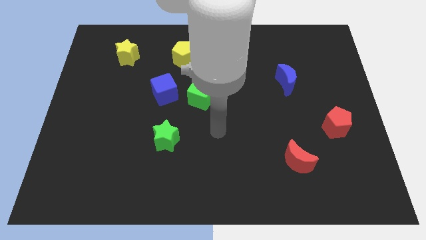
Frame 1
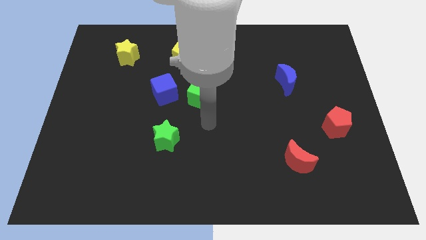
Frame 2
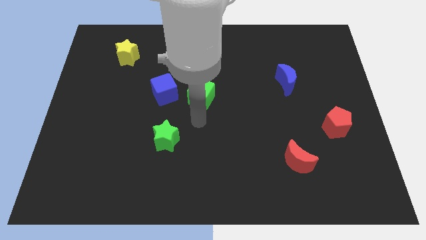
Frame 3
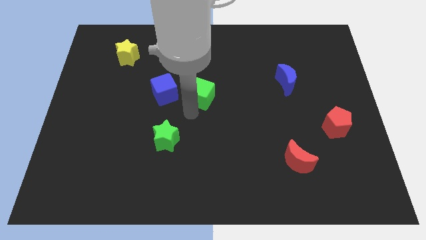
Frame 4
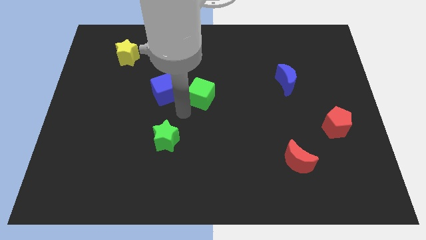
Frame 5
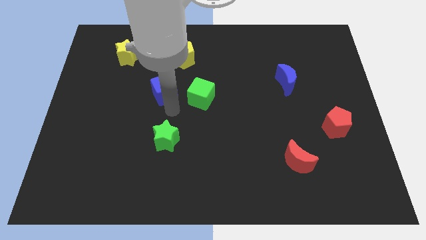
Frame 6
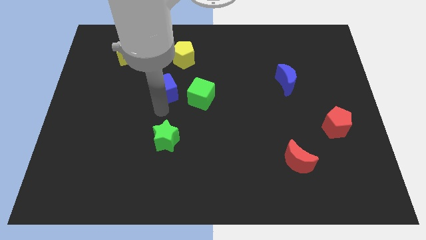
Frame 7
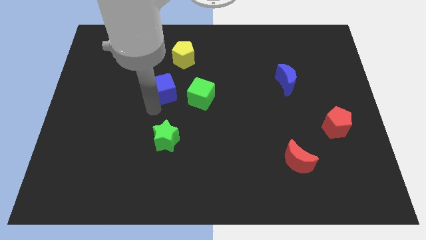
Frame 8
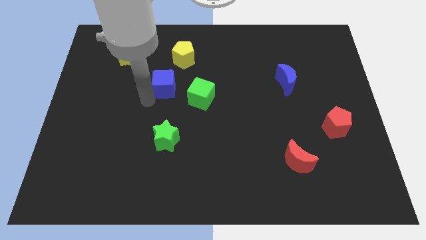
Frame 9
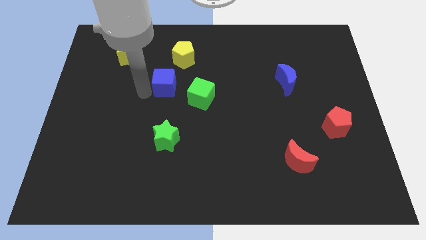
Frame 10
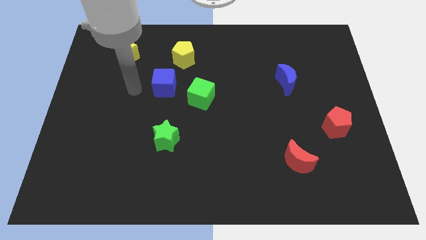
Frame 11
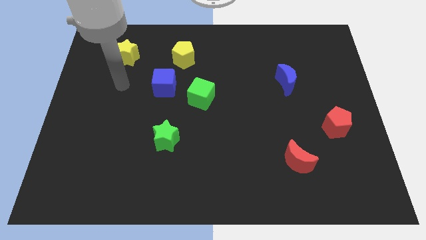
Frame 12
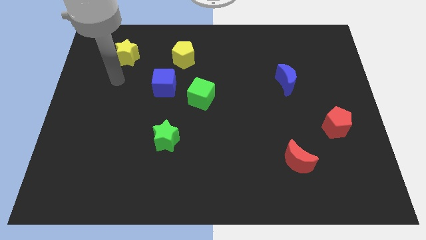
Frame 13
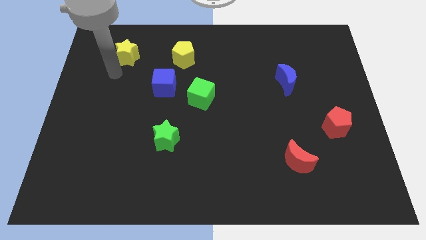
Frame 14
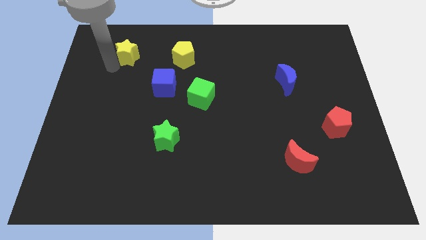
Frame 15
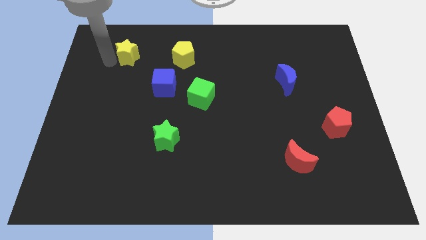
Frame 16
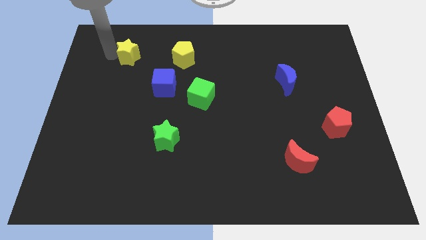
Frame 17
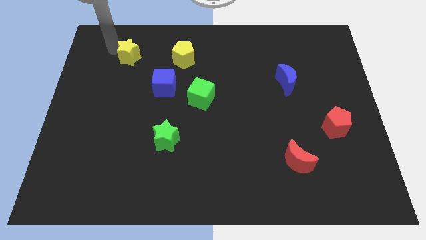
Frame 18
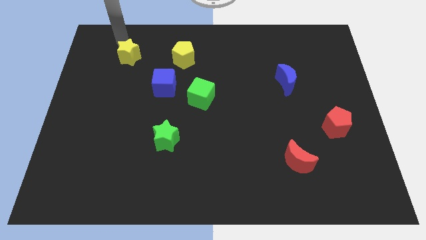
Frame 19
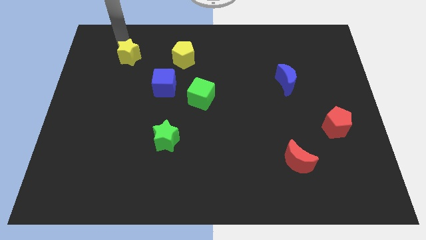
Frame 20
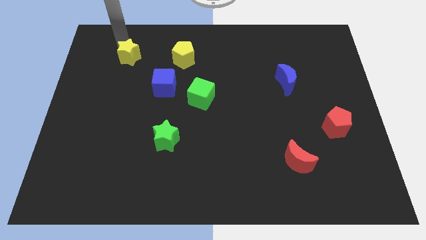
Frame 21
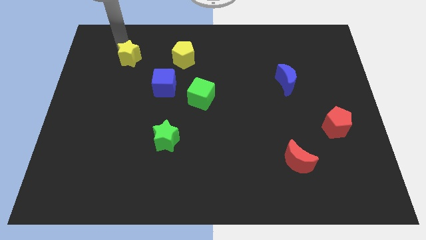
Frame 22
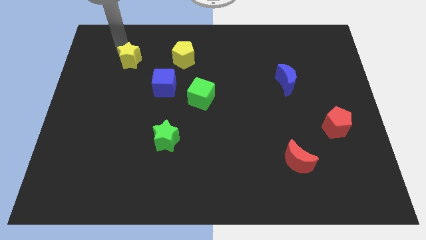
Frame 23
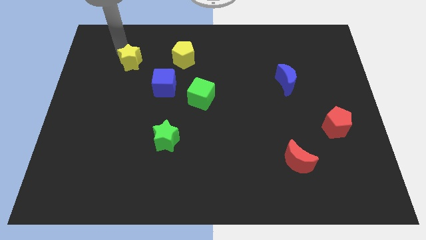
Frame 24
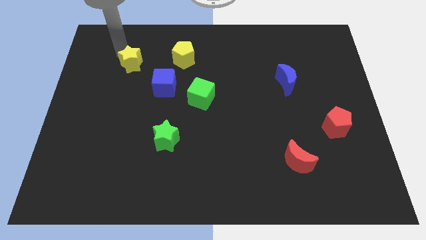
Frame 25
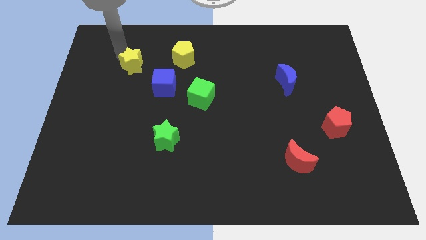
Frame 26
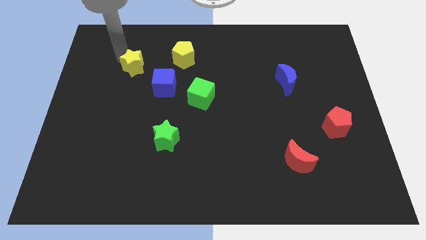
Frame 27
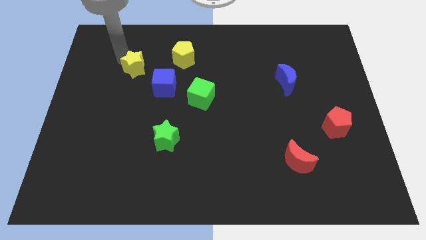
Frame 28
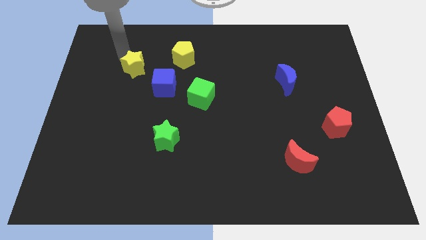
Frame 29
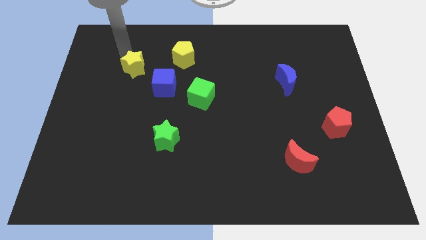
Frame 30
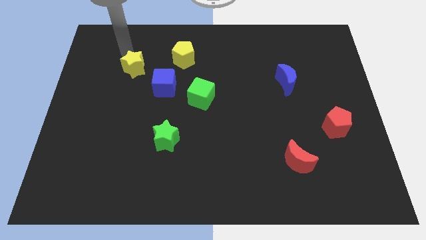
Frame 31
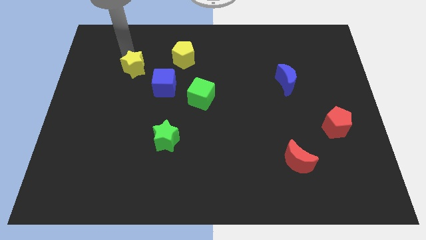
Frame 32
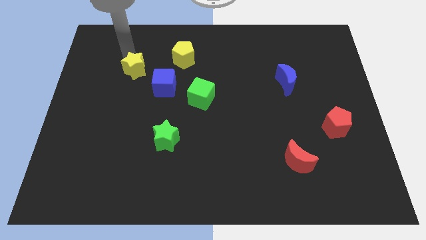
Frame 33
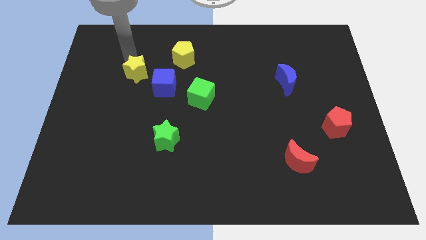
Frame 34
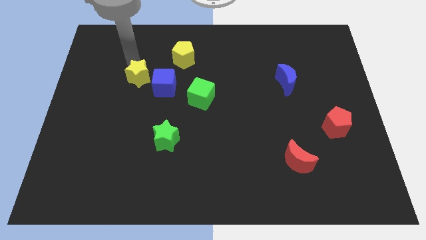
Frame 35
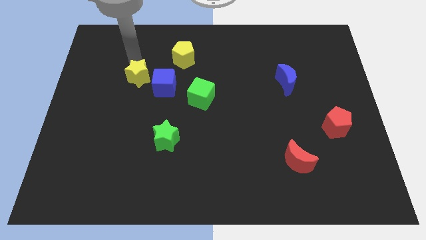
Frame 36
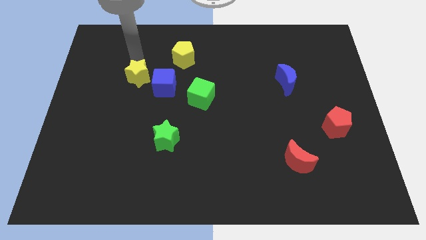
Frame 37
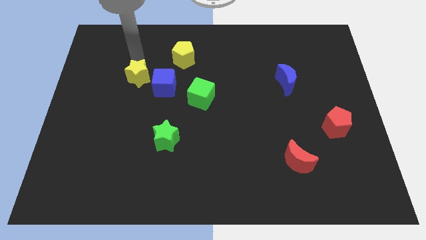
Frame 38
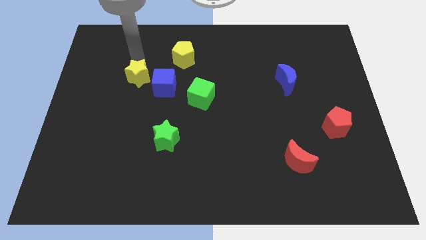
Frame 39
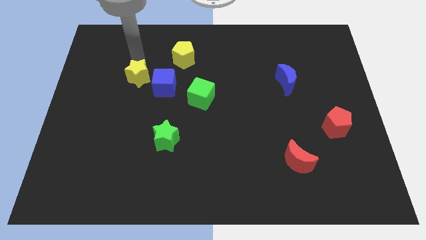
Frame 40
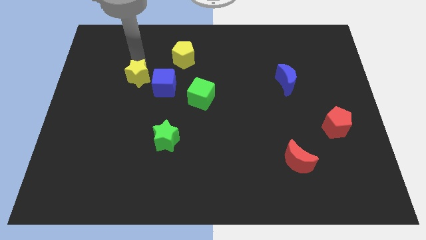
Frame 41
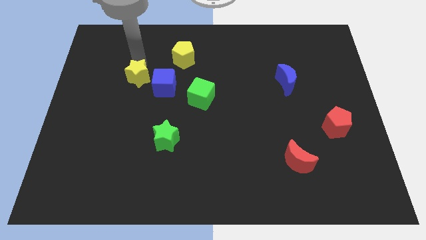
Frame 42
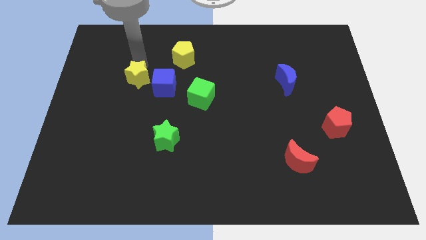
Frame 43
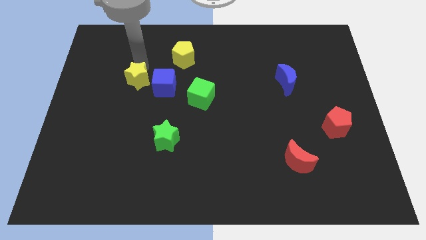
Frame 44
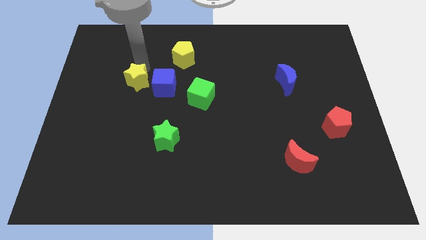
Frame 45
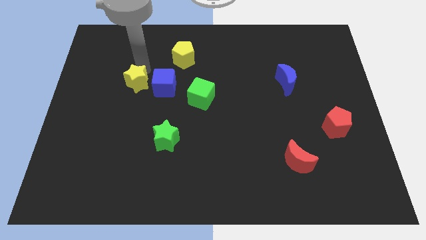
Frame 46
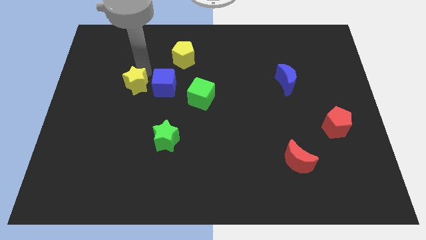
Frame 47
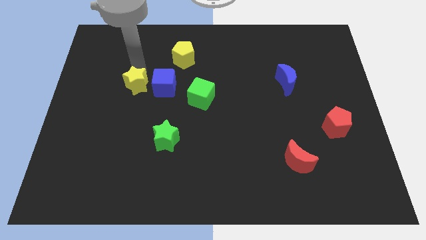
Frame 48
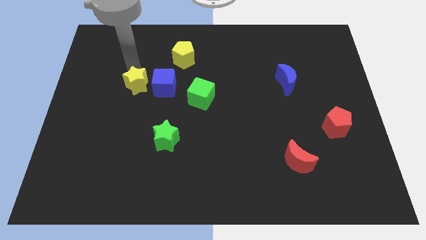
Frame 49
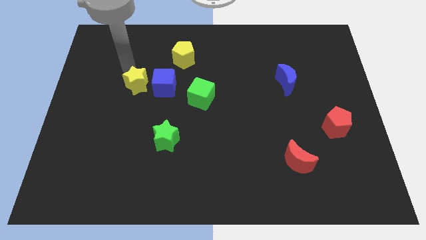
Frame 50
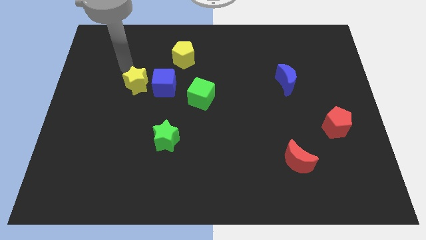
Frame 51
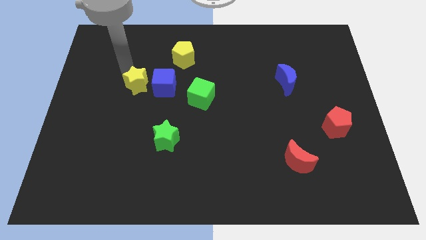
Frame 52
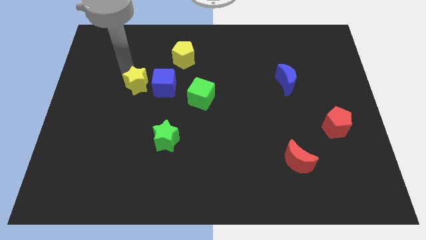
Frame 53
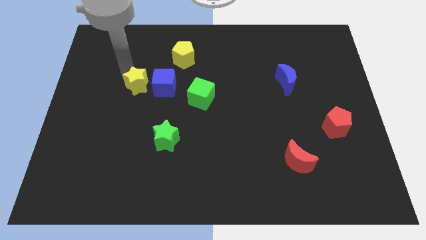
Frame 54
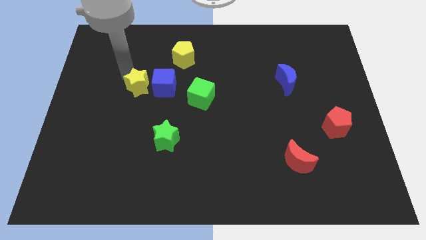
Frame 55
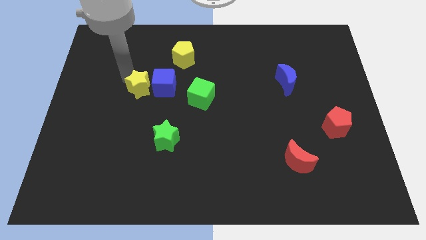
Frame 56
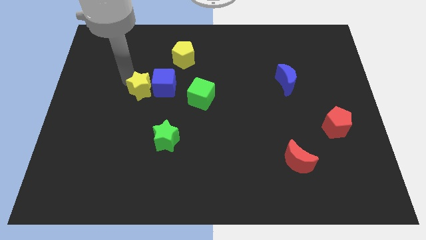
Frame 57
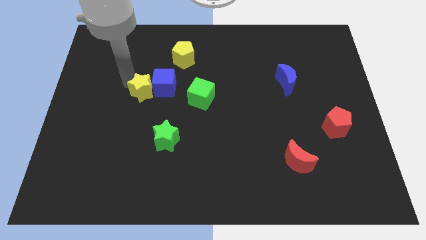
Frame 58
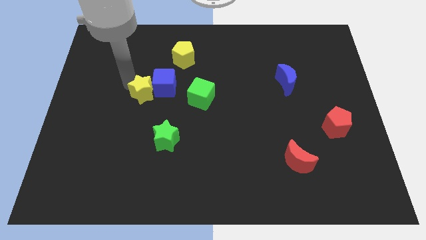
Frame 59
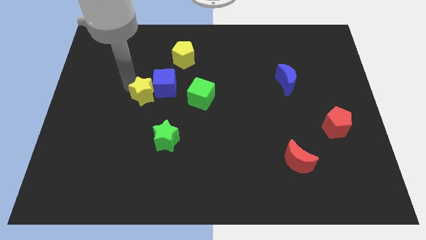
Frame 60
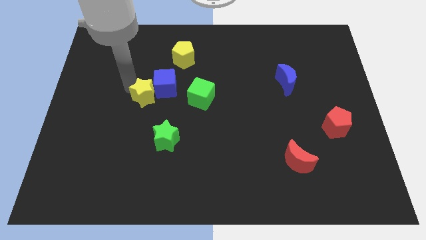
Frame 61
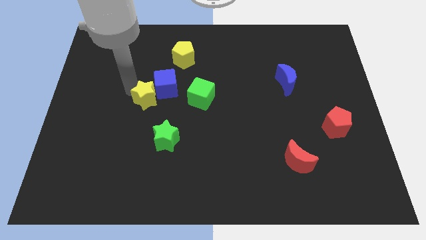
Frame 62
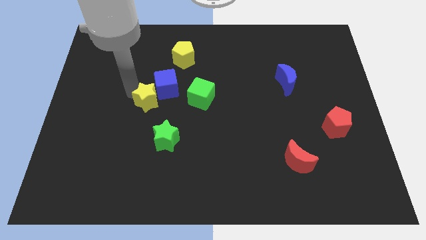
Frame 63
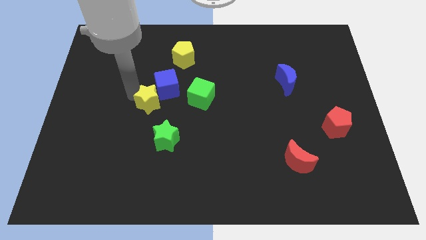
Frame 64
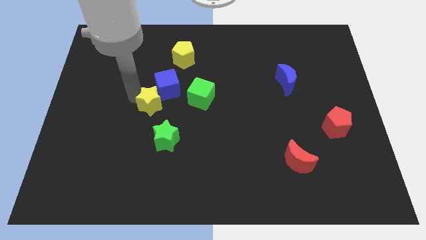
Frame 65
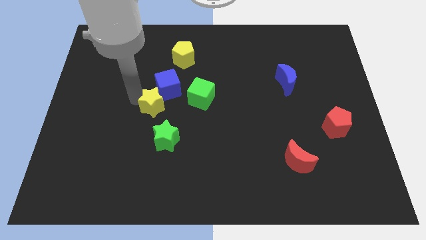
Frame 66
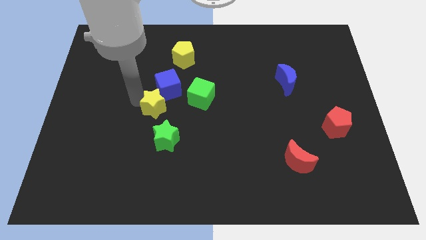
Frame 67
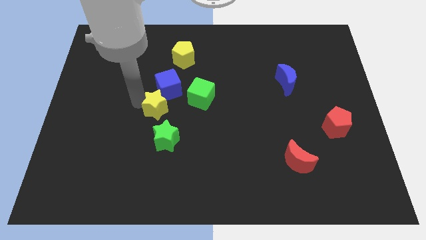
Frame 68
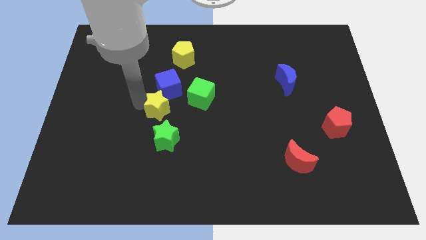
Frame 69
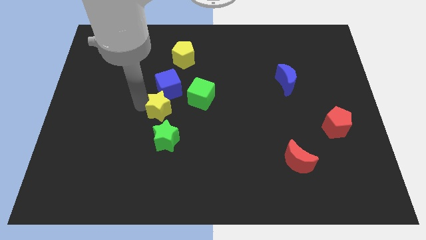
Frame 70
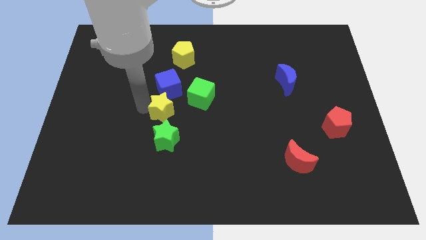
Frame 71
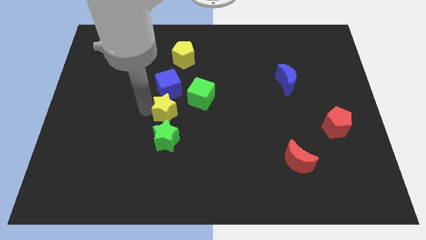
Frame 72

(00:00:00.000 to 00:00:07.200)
slide the yellow star diagonally down and right

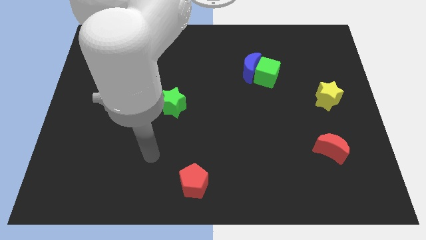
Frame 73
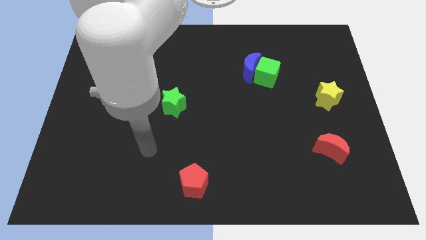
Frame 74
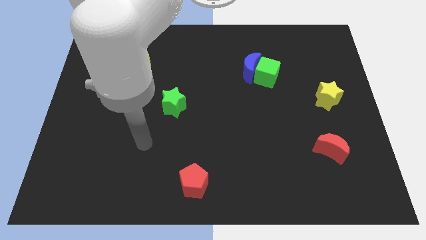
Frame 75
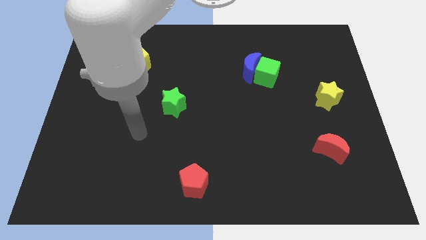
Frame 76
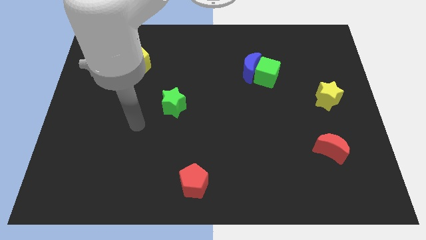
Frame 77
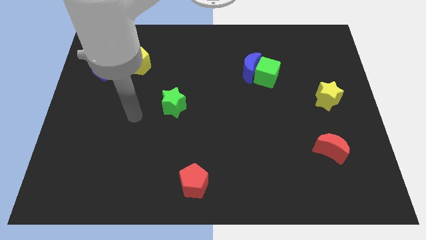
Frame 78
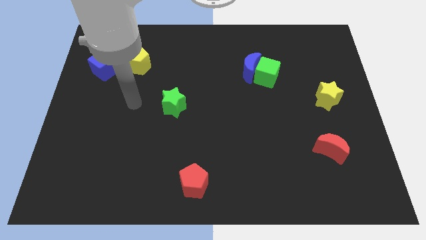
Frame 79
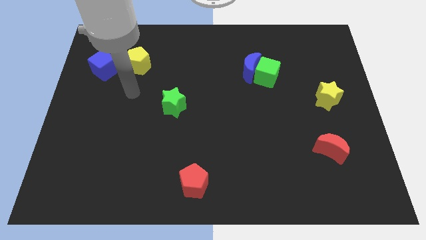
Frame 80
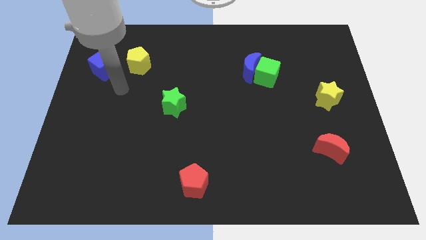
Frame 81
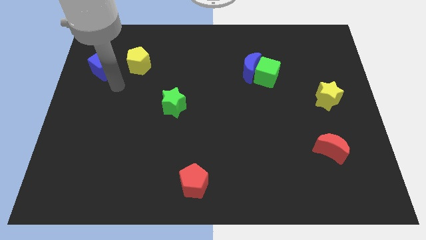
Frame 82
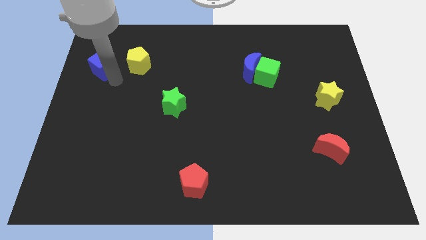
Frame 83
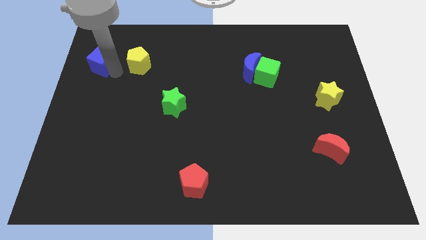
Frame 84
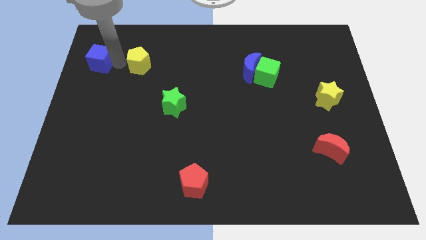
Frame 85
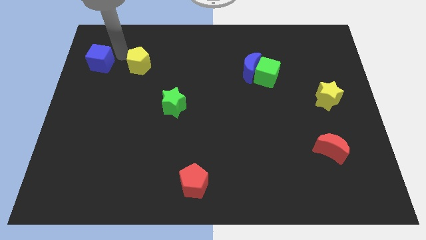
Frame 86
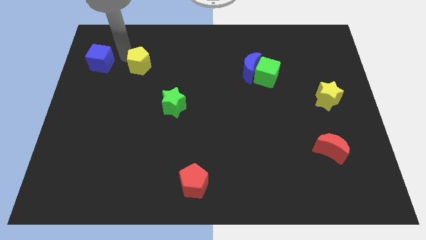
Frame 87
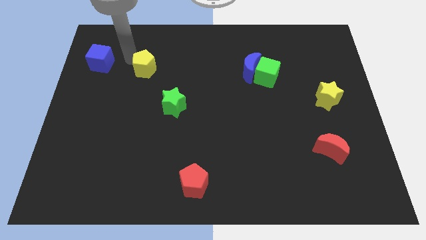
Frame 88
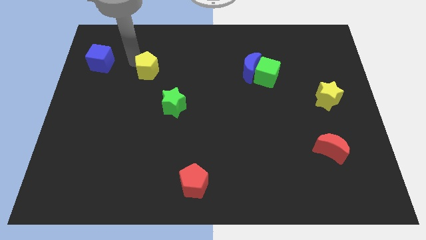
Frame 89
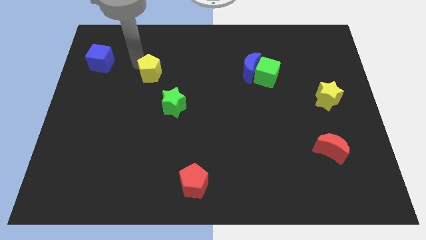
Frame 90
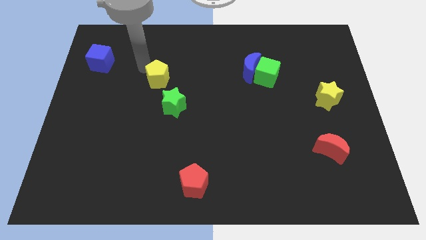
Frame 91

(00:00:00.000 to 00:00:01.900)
slightly push the yellow pentagon downwards and then to the right
